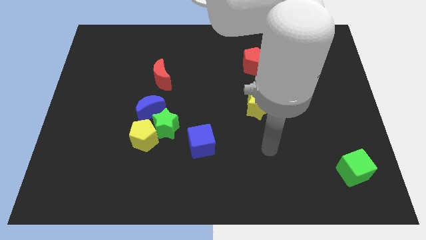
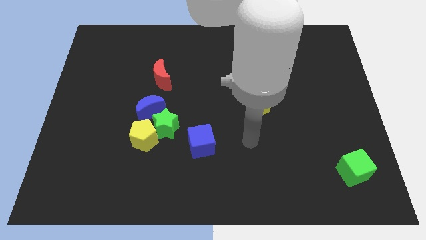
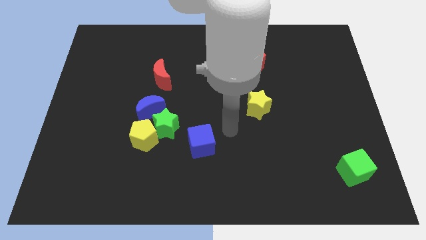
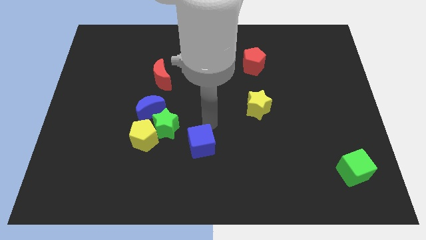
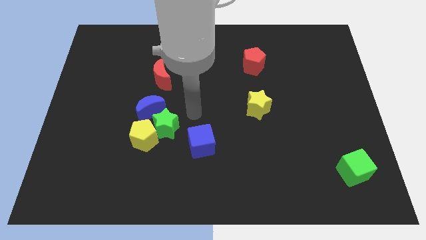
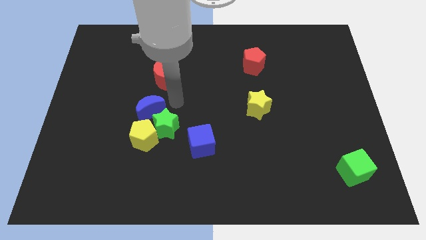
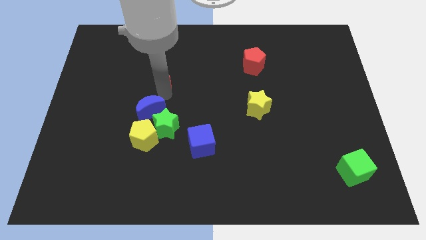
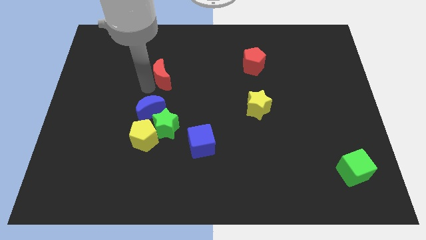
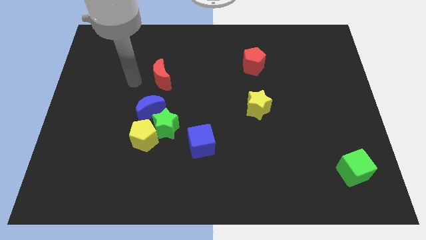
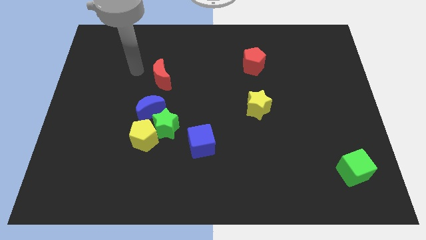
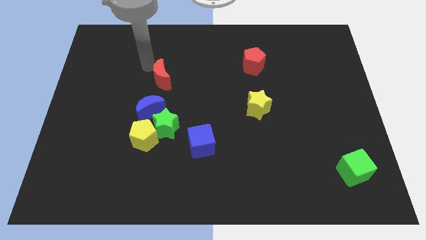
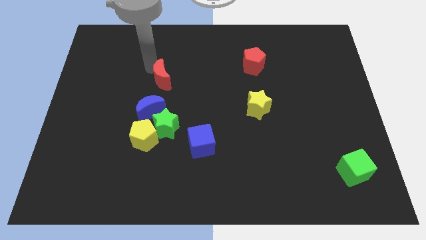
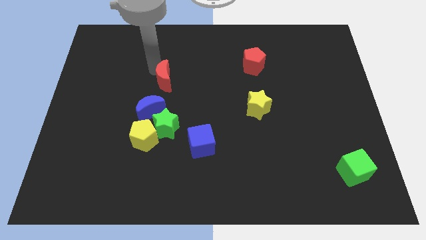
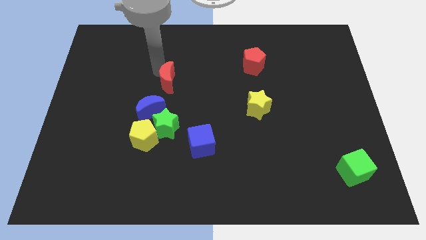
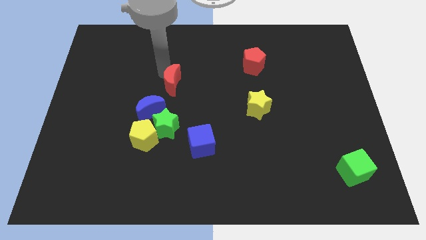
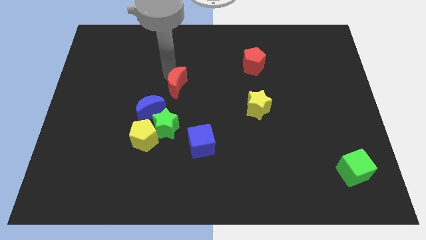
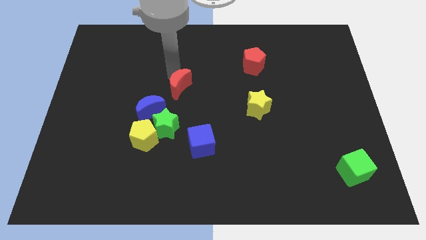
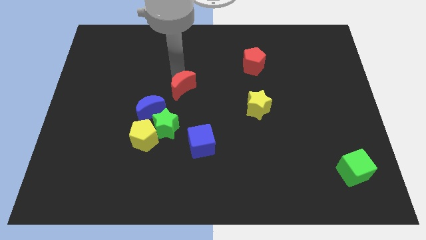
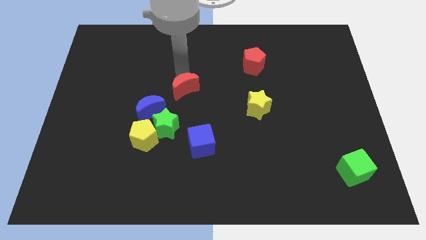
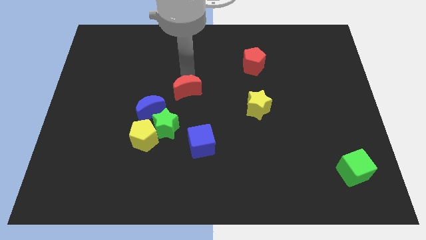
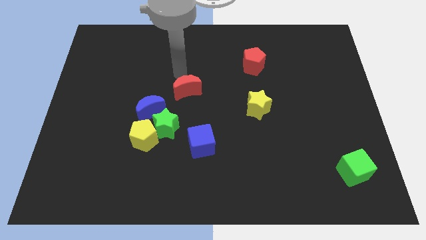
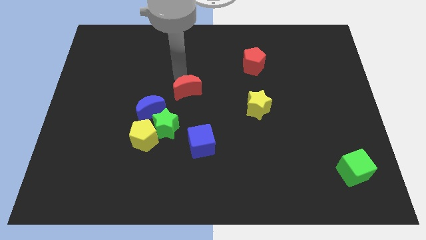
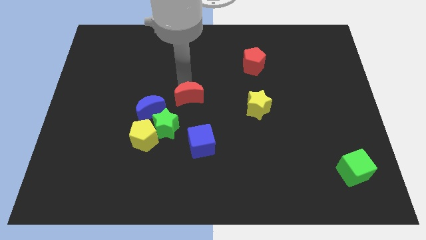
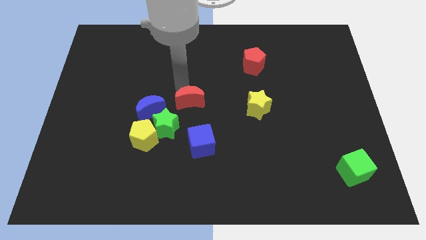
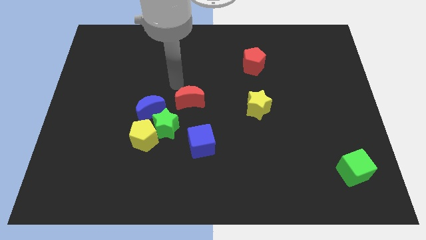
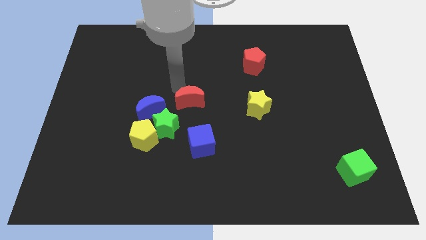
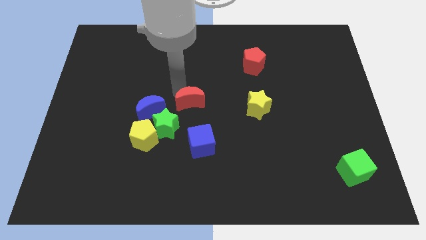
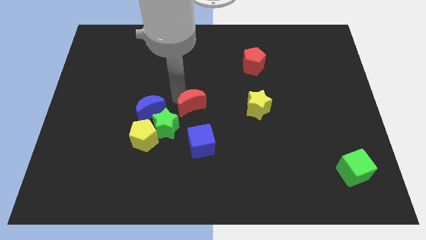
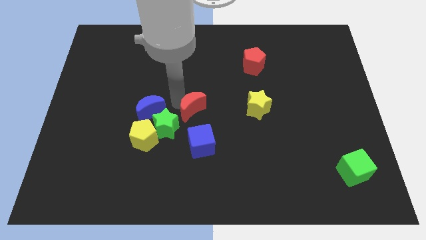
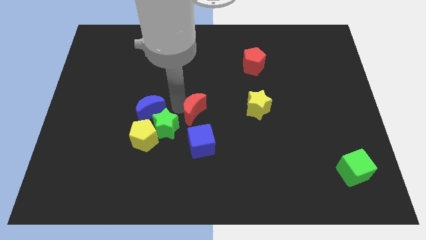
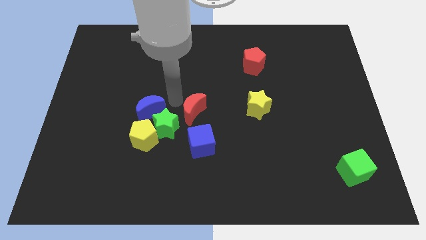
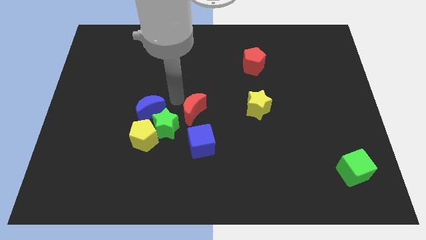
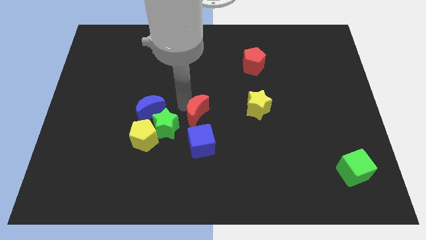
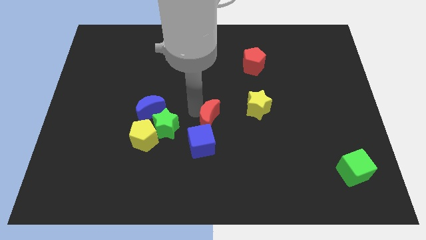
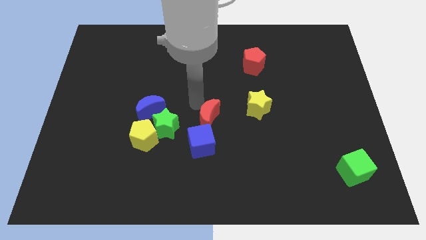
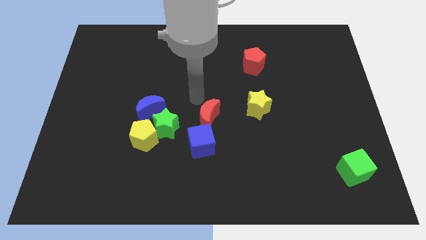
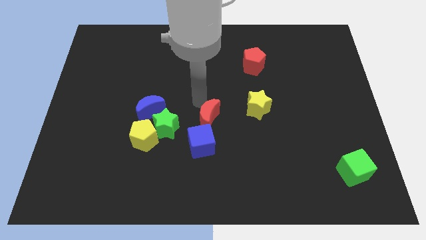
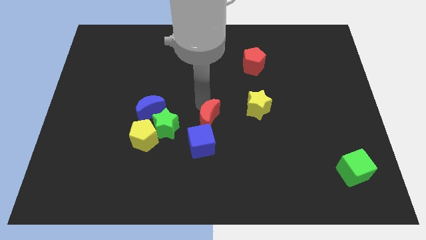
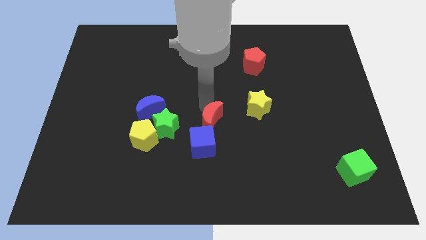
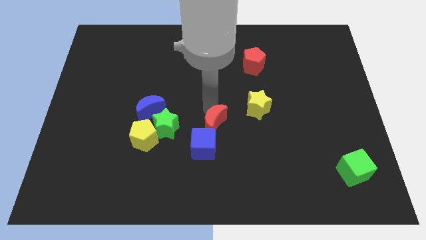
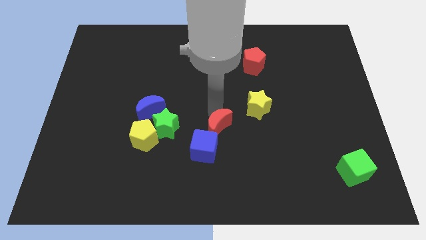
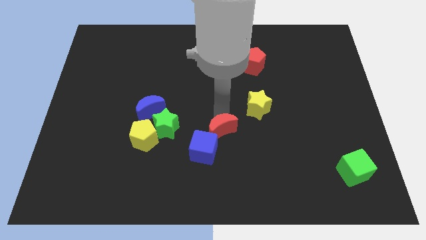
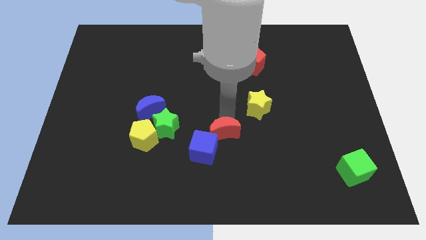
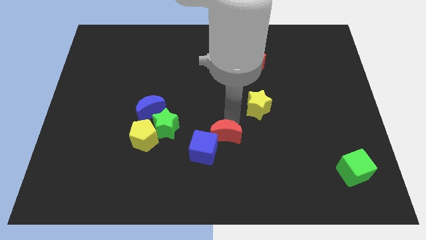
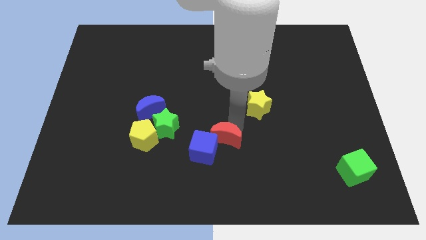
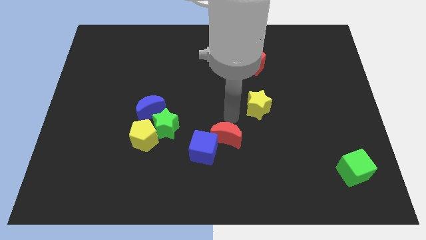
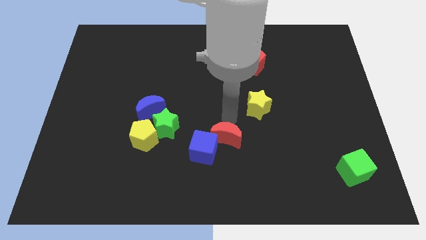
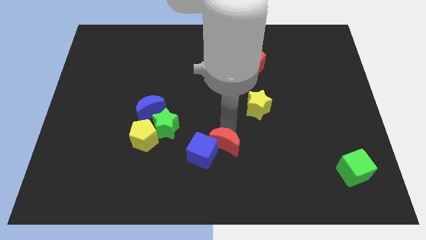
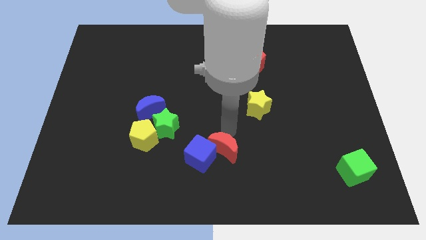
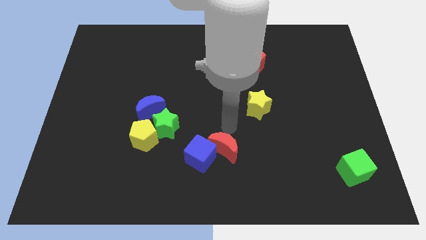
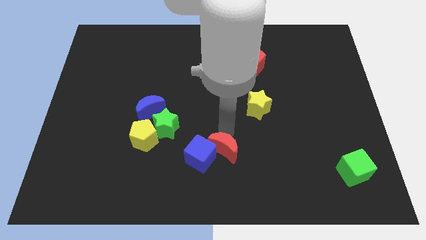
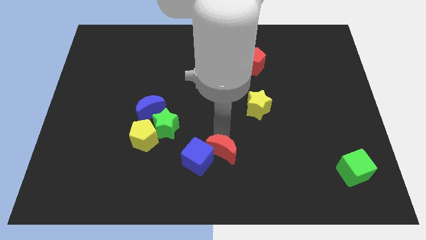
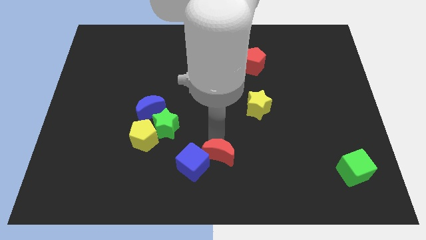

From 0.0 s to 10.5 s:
slide the red moon to the bottom side
